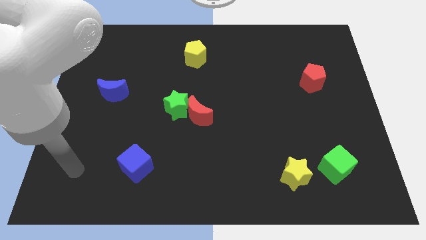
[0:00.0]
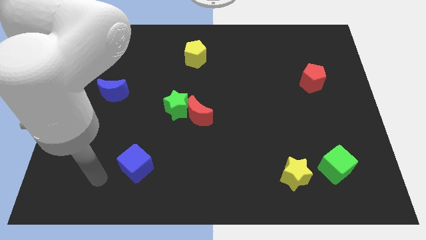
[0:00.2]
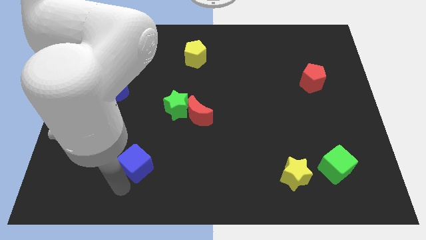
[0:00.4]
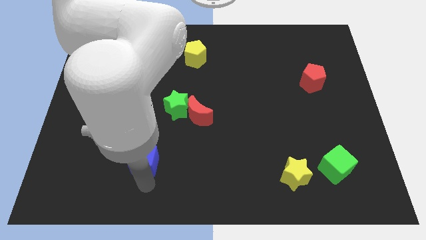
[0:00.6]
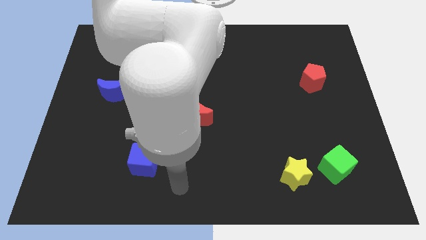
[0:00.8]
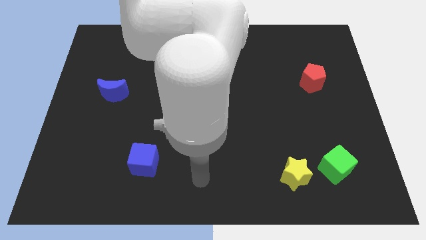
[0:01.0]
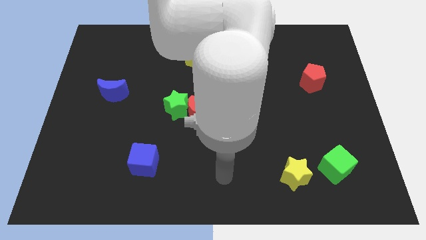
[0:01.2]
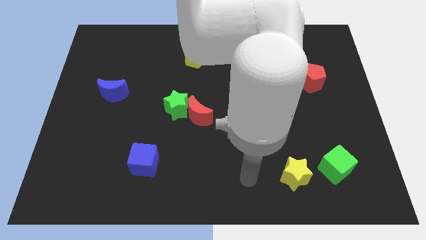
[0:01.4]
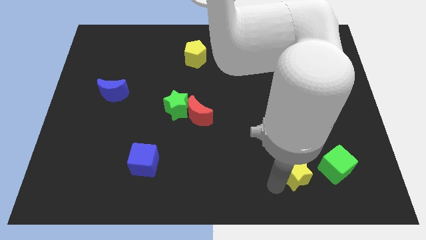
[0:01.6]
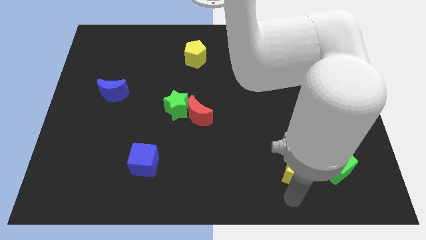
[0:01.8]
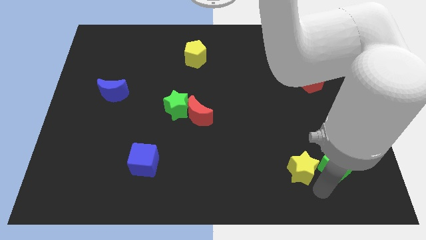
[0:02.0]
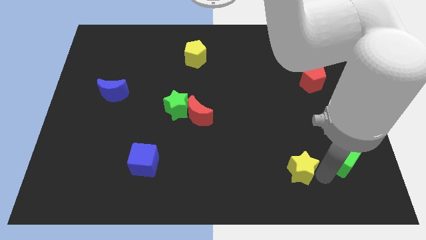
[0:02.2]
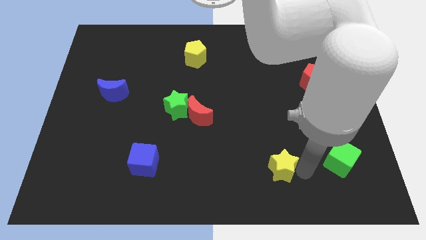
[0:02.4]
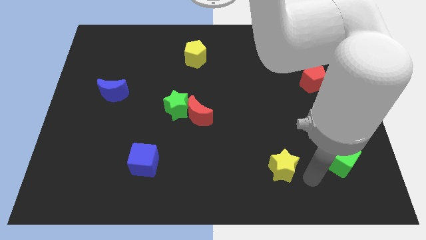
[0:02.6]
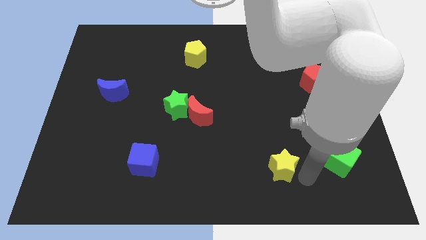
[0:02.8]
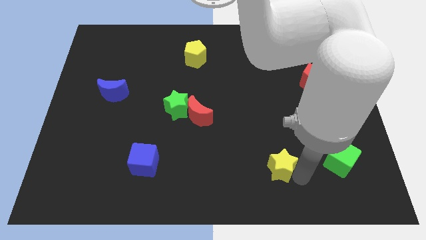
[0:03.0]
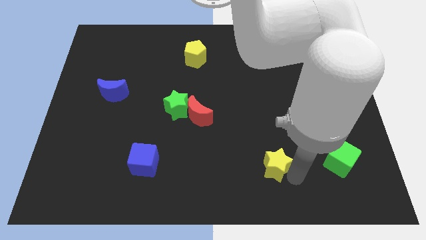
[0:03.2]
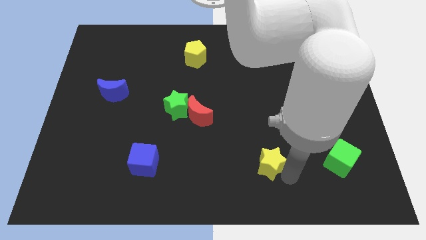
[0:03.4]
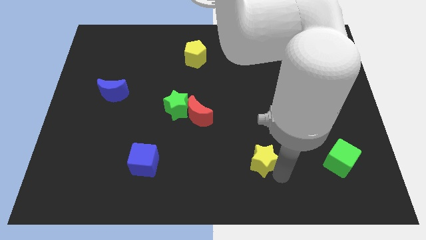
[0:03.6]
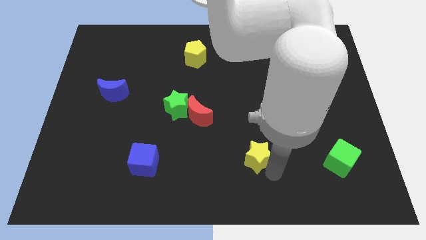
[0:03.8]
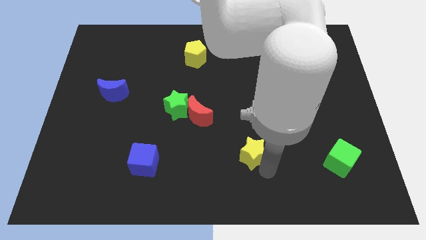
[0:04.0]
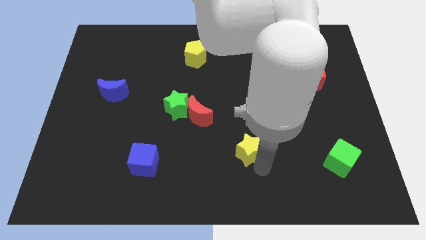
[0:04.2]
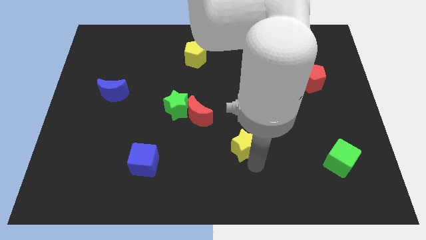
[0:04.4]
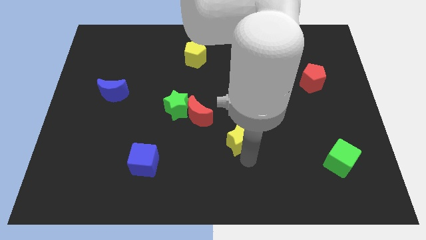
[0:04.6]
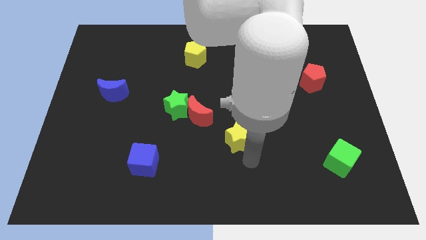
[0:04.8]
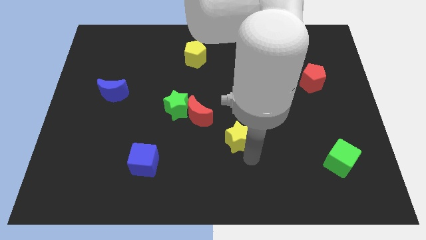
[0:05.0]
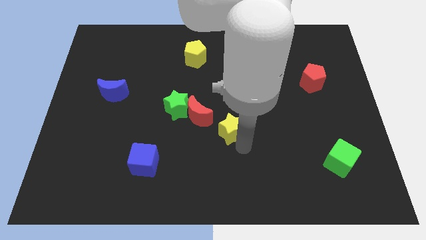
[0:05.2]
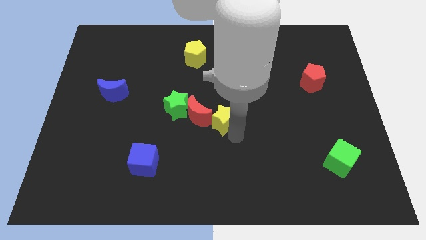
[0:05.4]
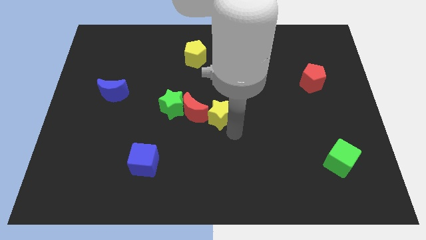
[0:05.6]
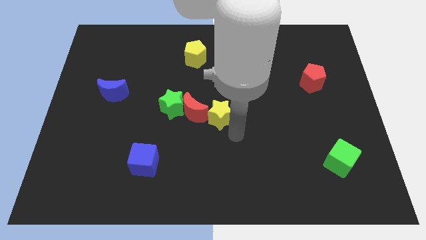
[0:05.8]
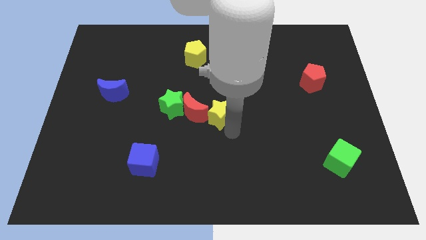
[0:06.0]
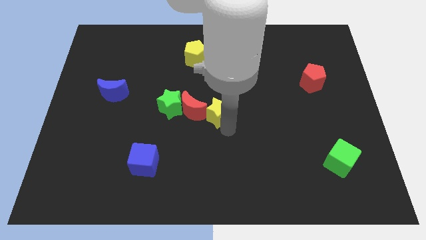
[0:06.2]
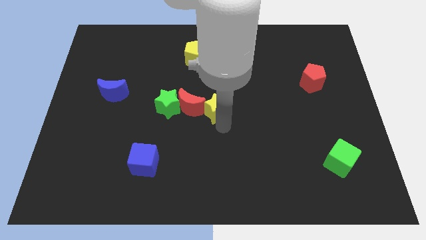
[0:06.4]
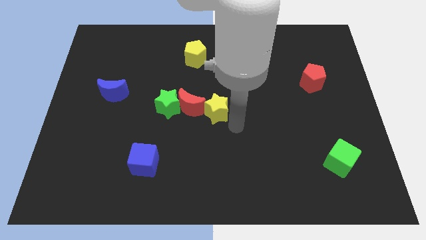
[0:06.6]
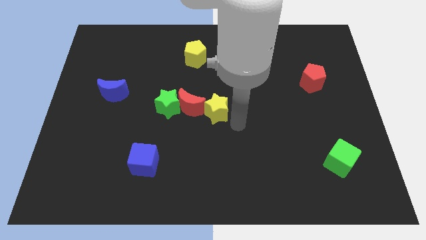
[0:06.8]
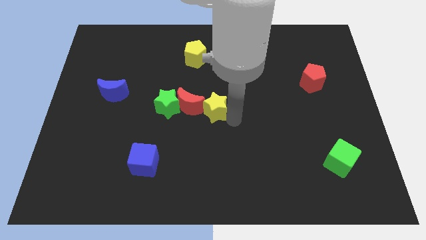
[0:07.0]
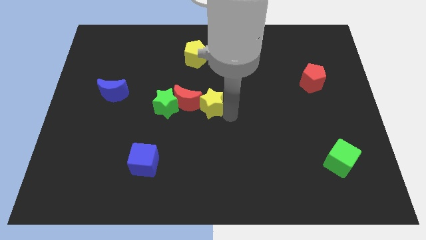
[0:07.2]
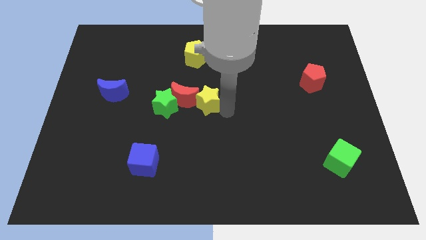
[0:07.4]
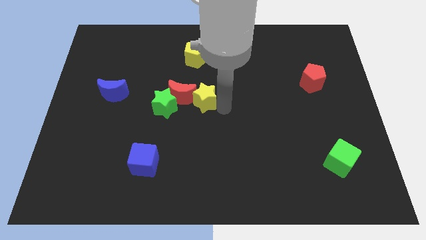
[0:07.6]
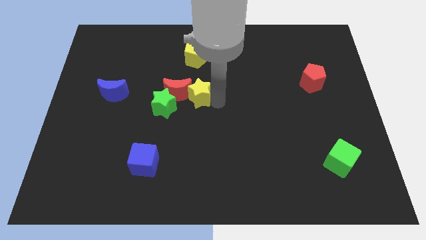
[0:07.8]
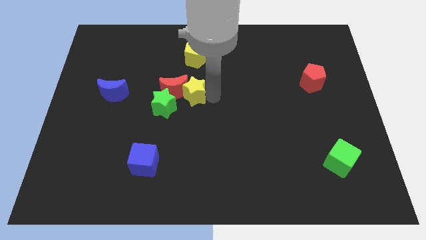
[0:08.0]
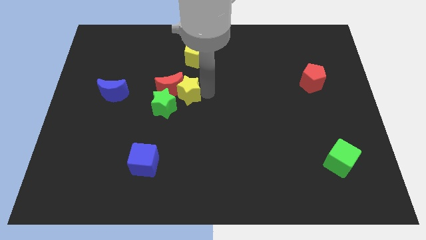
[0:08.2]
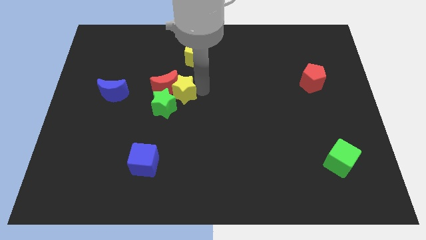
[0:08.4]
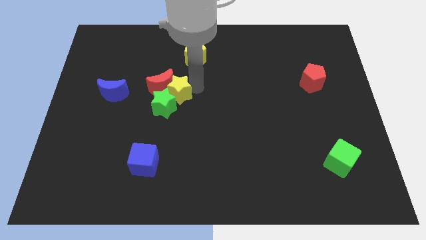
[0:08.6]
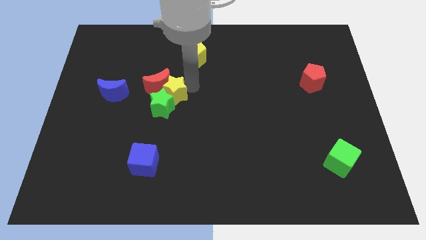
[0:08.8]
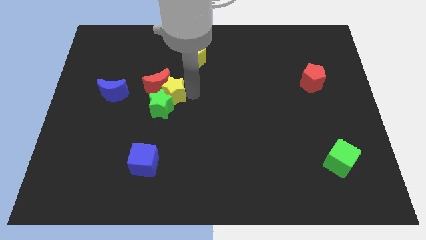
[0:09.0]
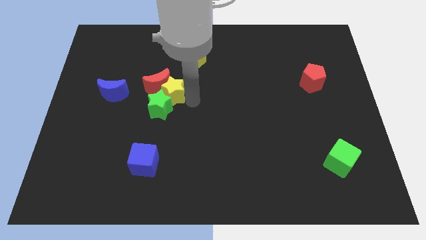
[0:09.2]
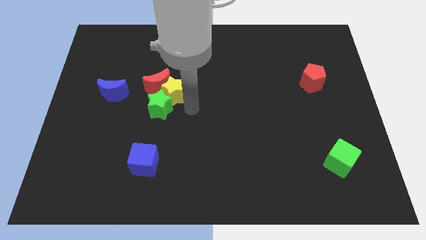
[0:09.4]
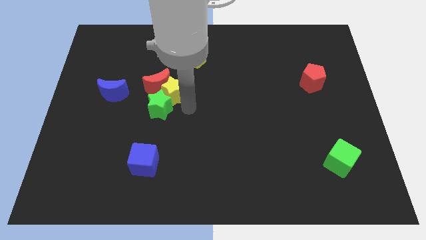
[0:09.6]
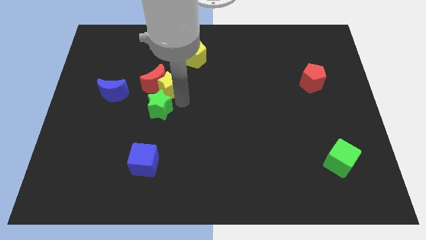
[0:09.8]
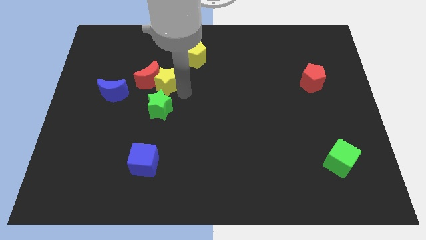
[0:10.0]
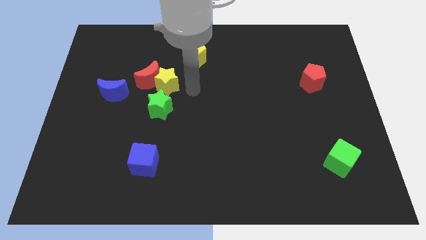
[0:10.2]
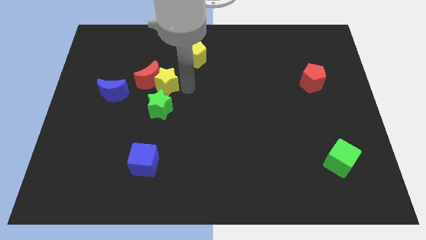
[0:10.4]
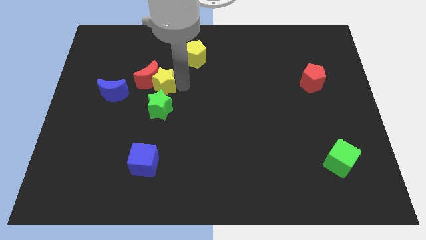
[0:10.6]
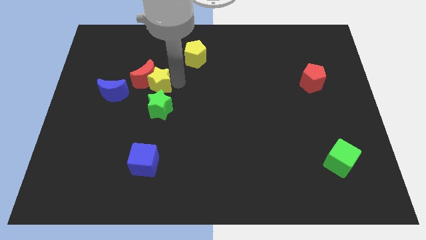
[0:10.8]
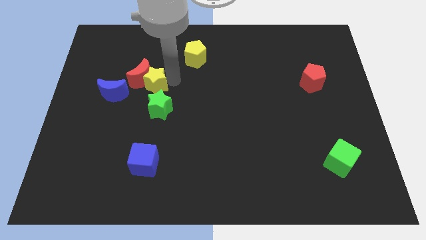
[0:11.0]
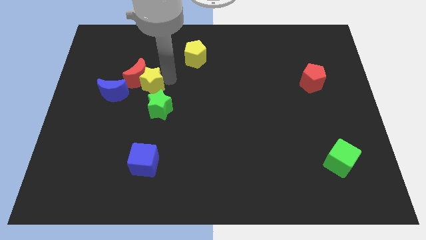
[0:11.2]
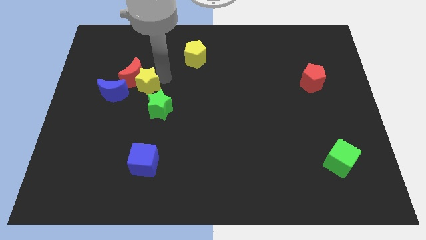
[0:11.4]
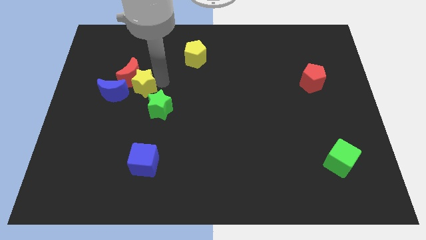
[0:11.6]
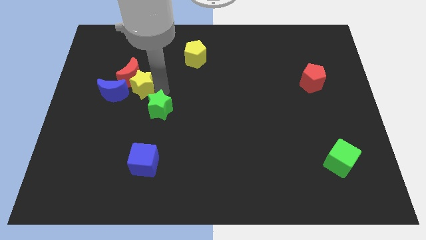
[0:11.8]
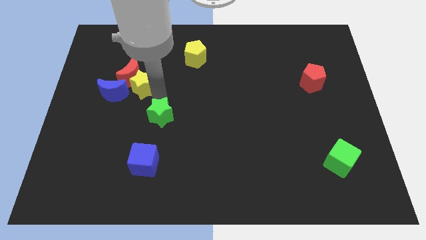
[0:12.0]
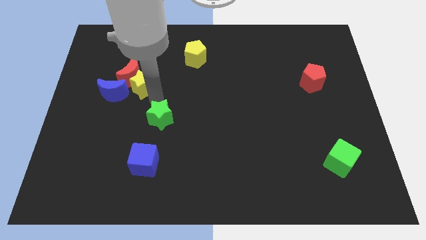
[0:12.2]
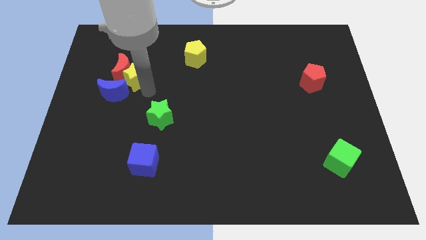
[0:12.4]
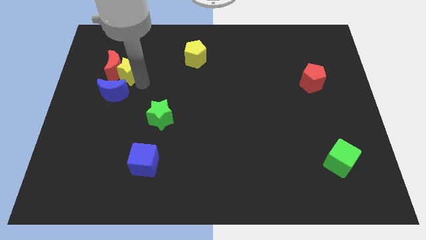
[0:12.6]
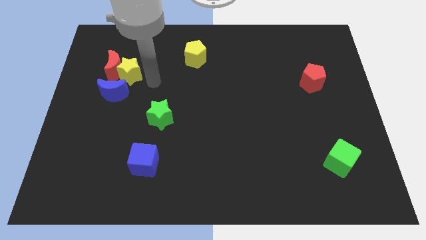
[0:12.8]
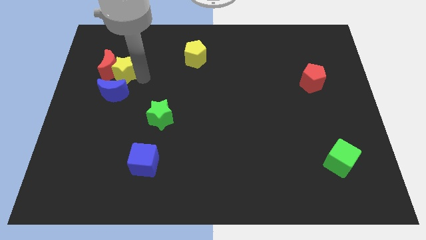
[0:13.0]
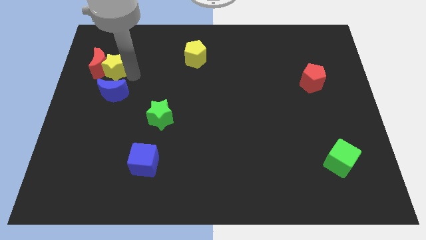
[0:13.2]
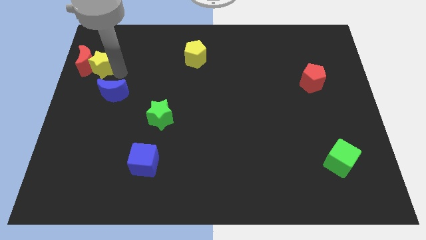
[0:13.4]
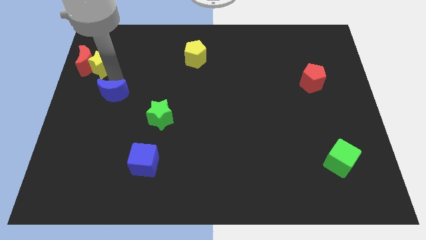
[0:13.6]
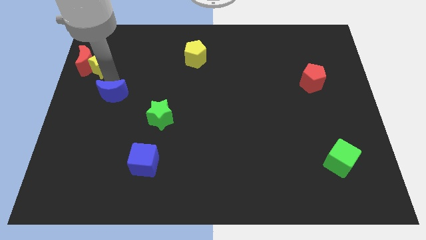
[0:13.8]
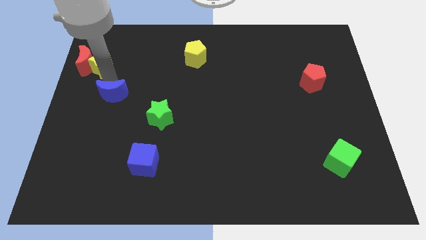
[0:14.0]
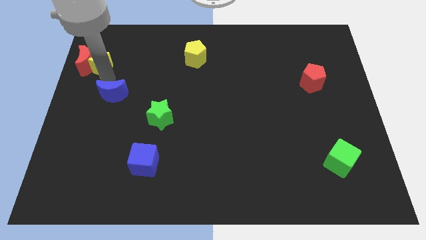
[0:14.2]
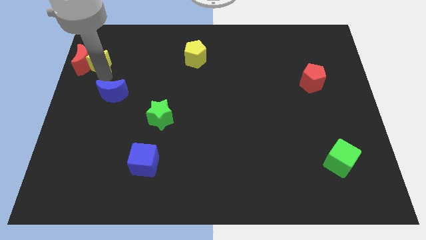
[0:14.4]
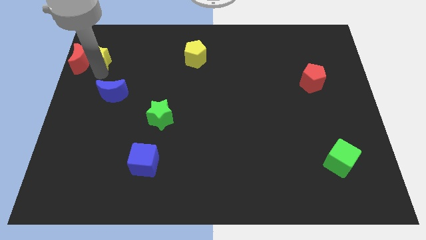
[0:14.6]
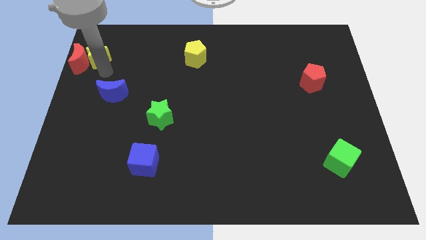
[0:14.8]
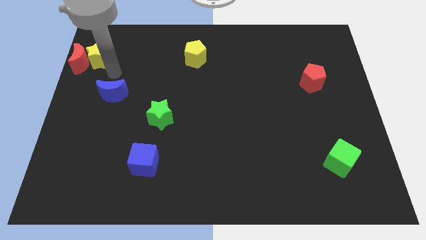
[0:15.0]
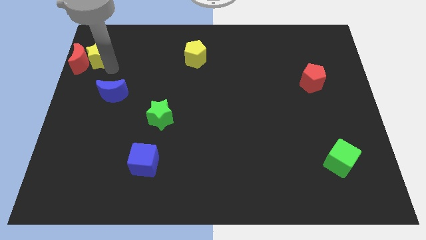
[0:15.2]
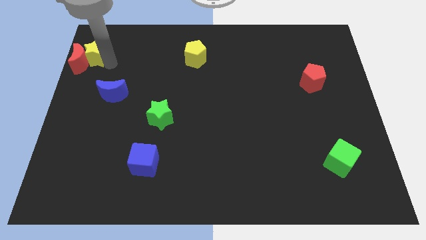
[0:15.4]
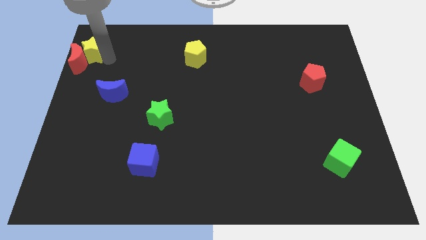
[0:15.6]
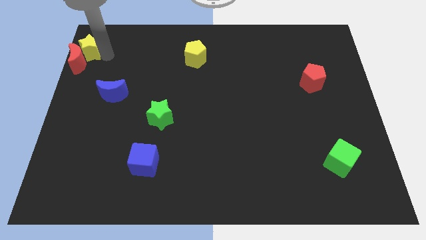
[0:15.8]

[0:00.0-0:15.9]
slide the yellow star to the top left of the board
